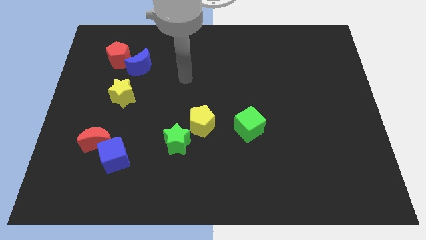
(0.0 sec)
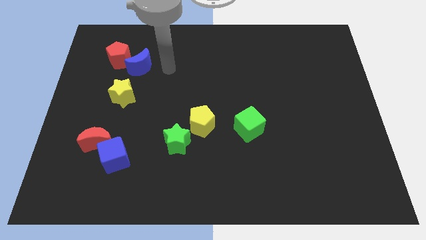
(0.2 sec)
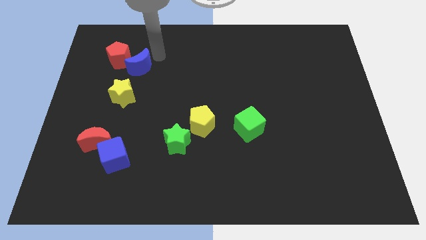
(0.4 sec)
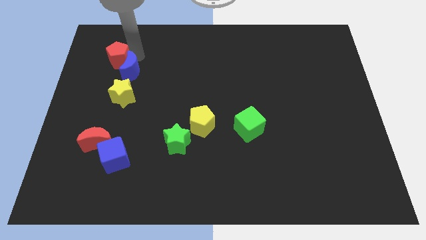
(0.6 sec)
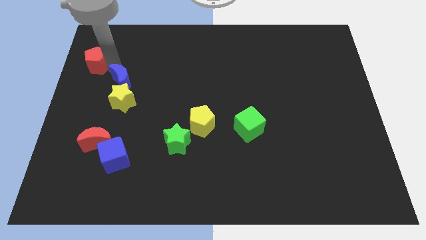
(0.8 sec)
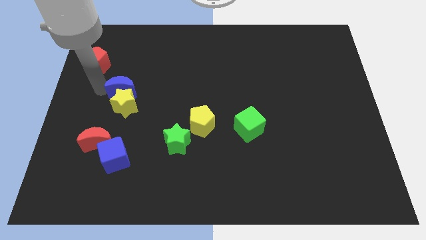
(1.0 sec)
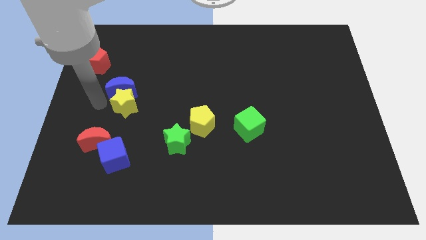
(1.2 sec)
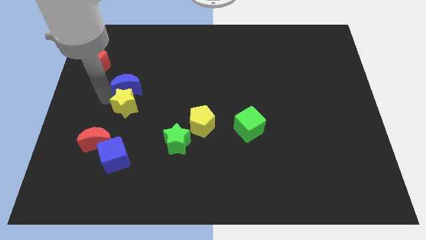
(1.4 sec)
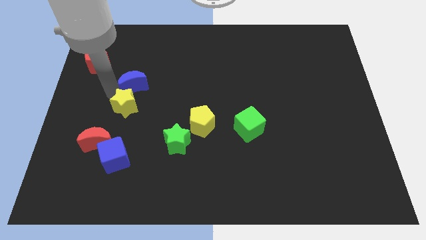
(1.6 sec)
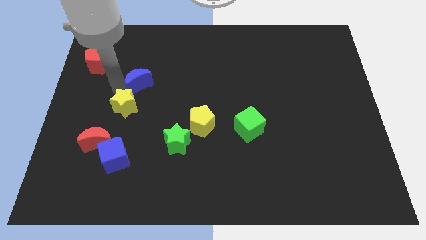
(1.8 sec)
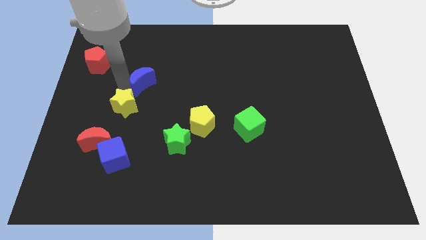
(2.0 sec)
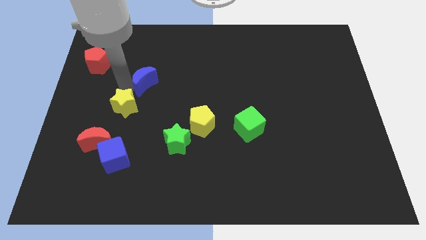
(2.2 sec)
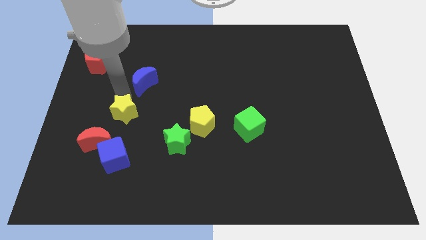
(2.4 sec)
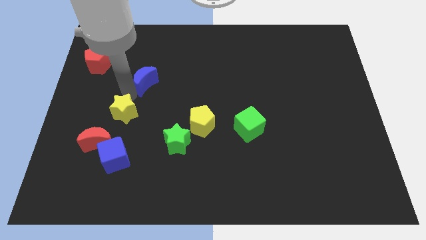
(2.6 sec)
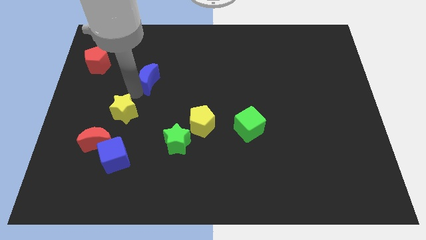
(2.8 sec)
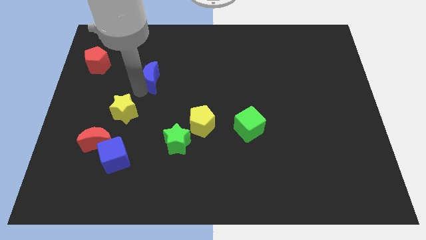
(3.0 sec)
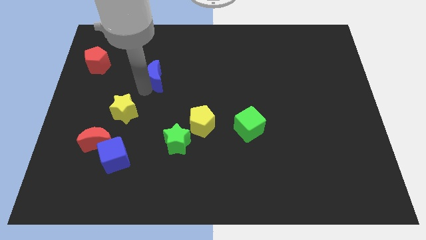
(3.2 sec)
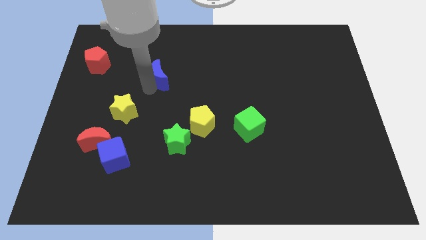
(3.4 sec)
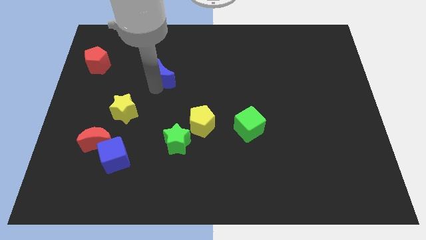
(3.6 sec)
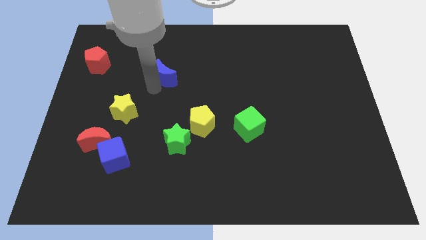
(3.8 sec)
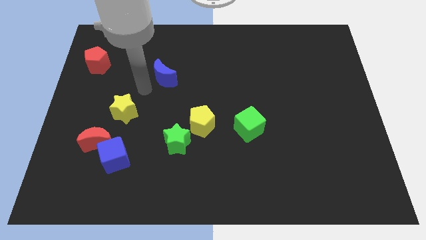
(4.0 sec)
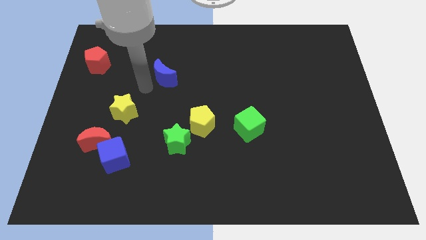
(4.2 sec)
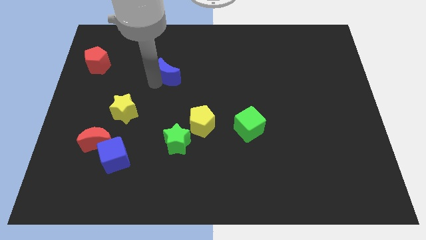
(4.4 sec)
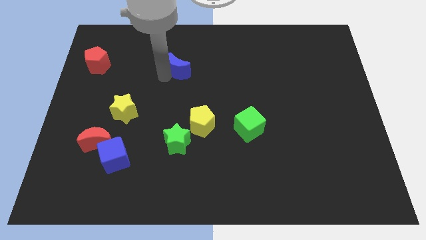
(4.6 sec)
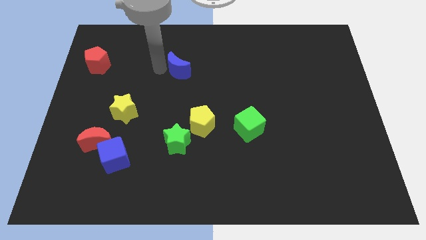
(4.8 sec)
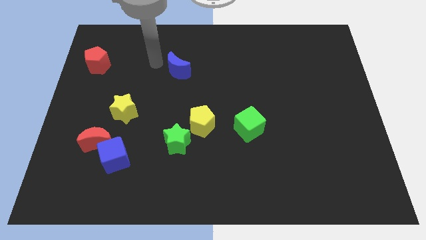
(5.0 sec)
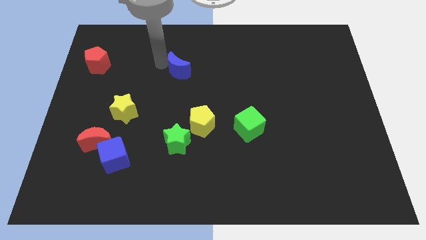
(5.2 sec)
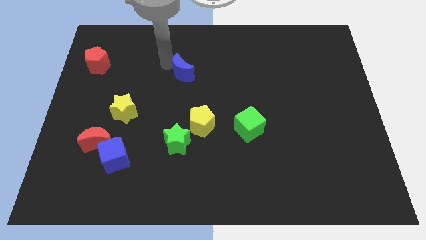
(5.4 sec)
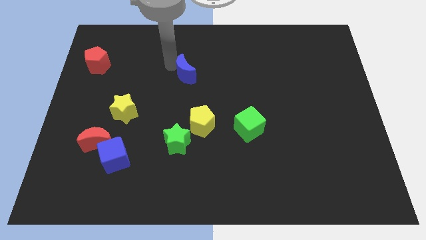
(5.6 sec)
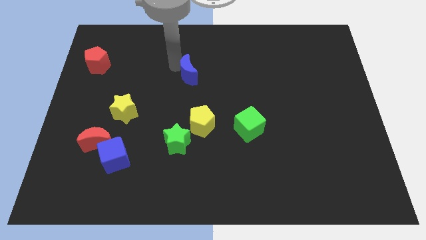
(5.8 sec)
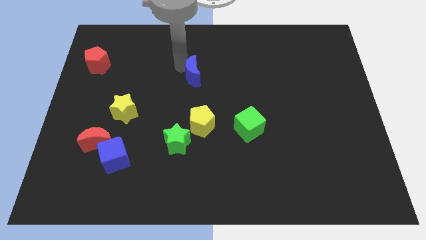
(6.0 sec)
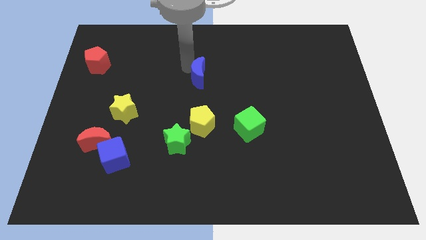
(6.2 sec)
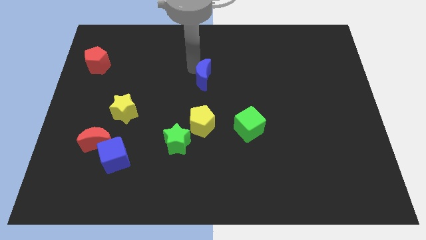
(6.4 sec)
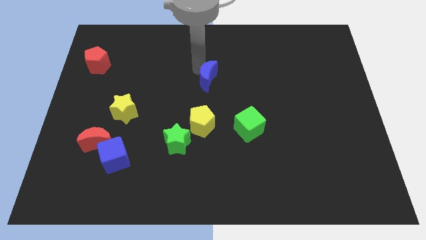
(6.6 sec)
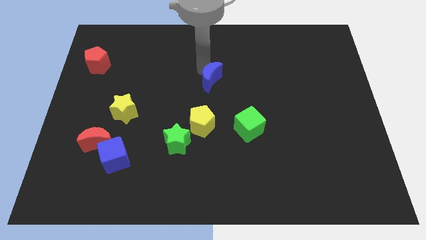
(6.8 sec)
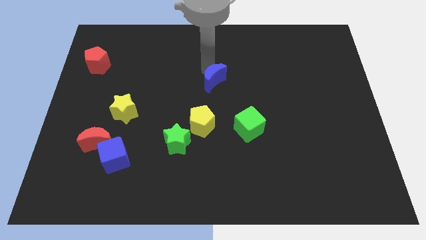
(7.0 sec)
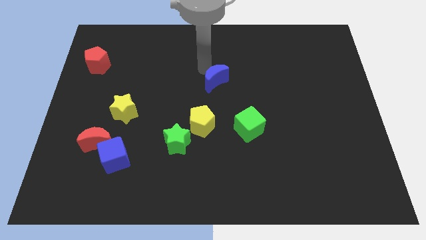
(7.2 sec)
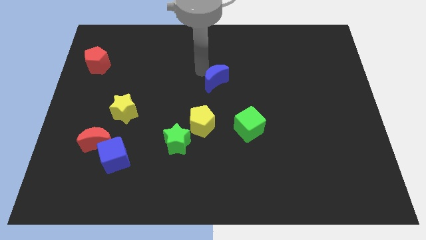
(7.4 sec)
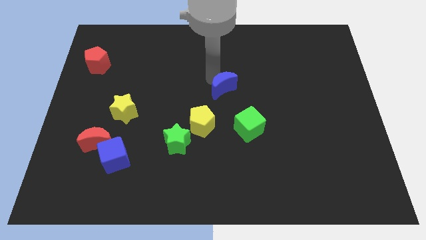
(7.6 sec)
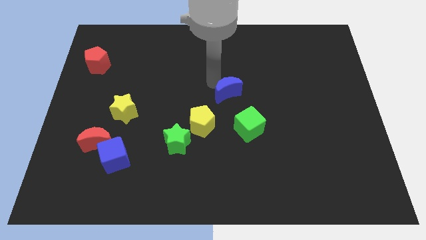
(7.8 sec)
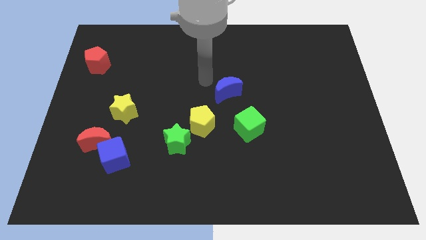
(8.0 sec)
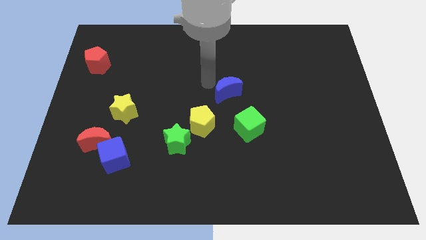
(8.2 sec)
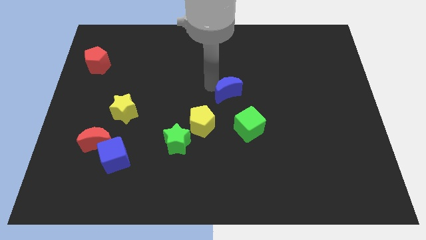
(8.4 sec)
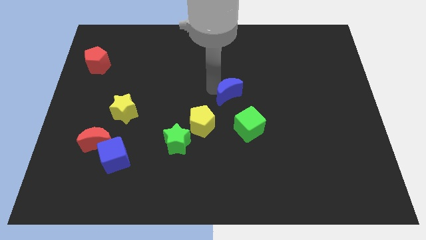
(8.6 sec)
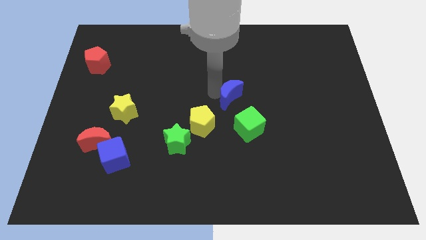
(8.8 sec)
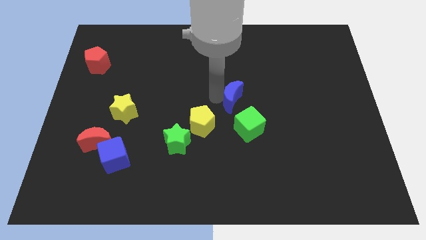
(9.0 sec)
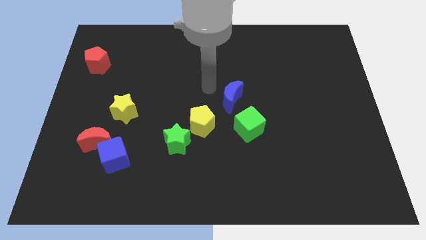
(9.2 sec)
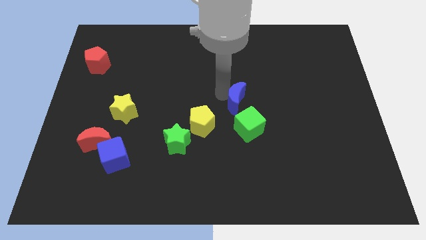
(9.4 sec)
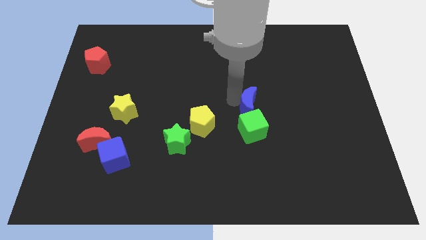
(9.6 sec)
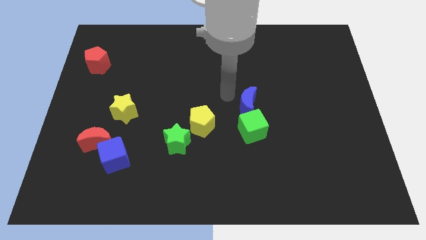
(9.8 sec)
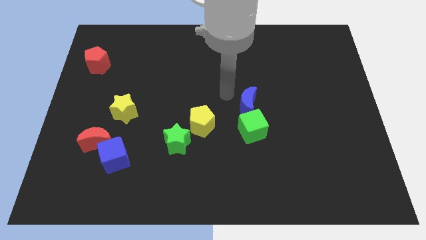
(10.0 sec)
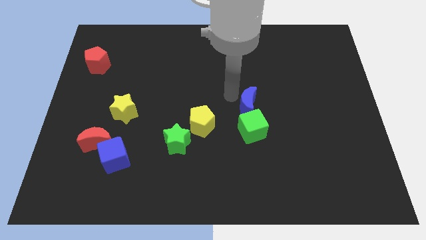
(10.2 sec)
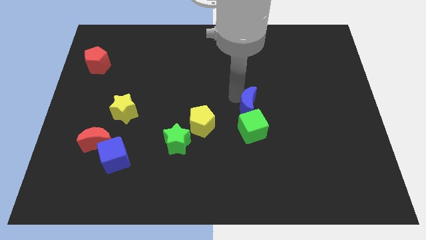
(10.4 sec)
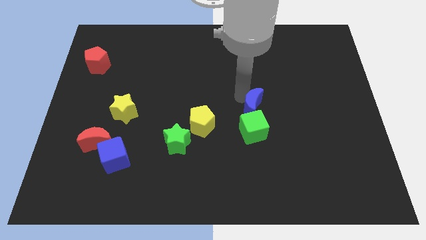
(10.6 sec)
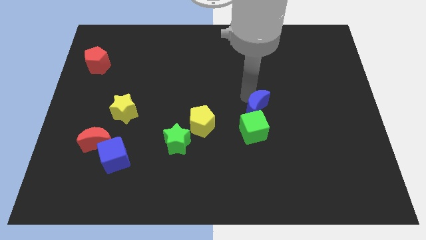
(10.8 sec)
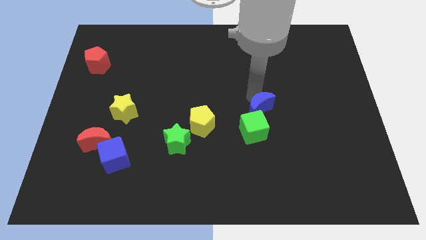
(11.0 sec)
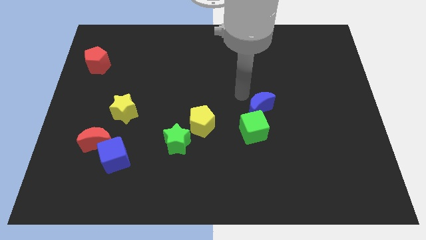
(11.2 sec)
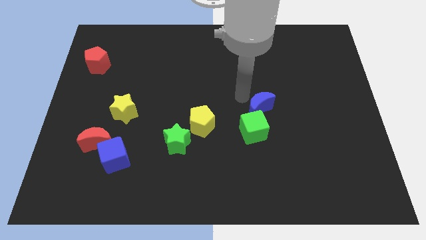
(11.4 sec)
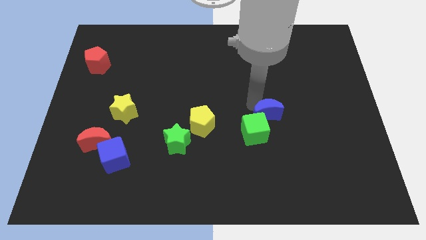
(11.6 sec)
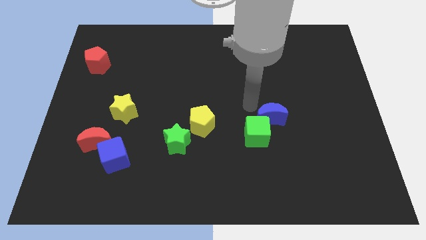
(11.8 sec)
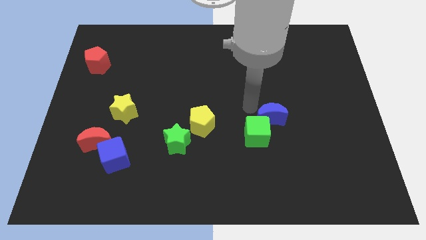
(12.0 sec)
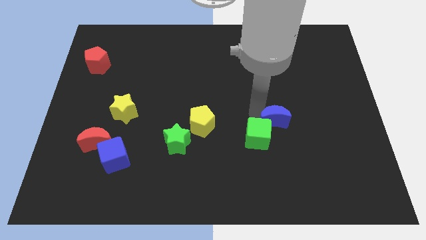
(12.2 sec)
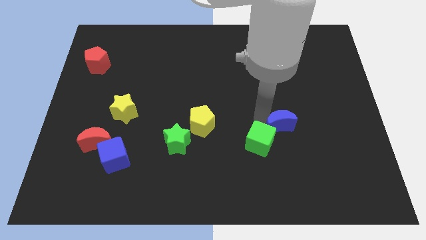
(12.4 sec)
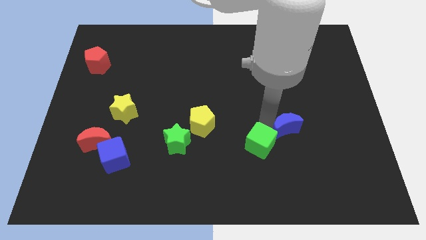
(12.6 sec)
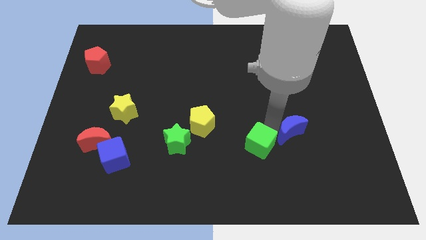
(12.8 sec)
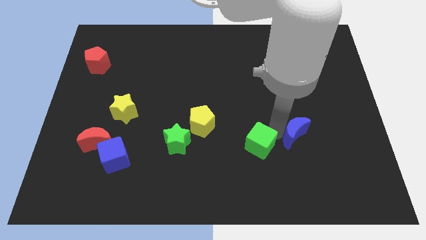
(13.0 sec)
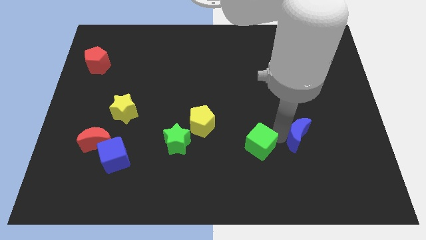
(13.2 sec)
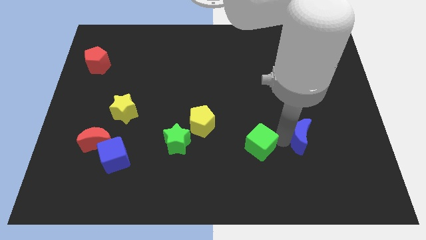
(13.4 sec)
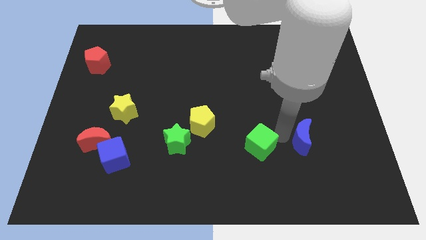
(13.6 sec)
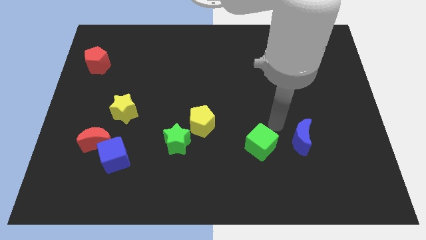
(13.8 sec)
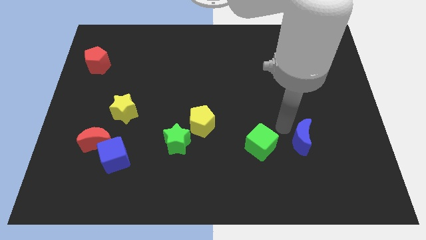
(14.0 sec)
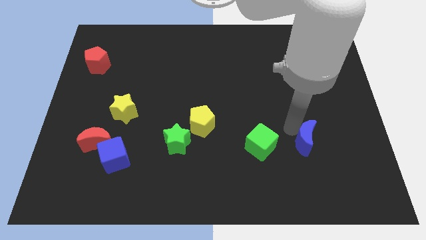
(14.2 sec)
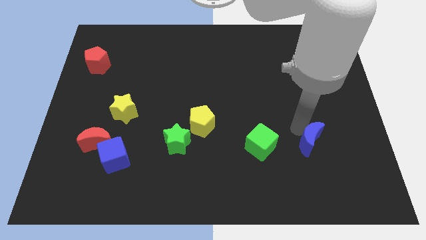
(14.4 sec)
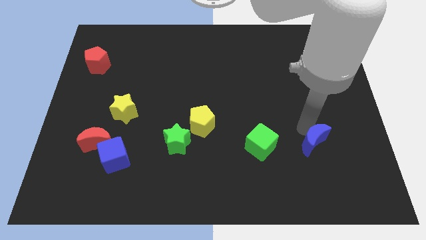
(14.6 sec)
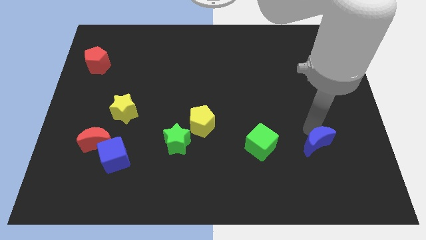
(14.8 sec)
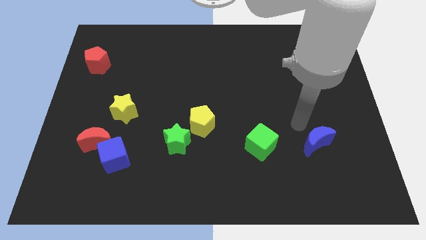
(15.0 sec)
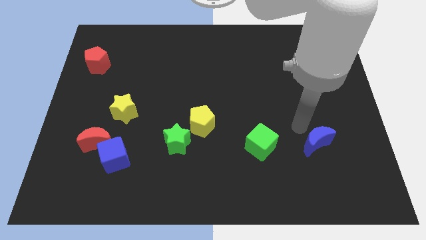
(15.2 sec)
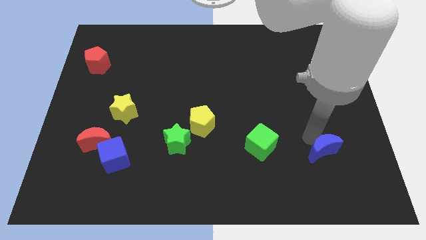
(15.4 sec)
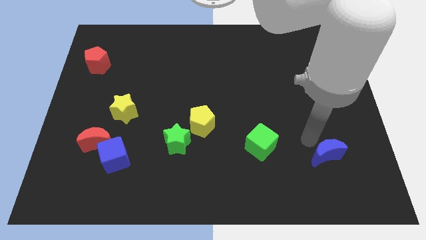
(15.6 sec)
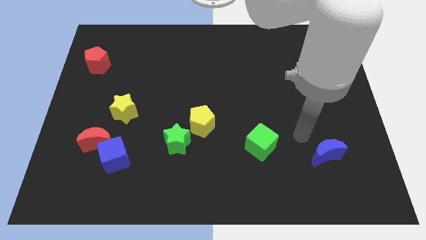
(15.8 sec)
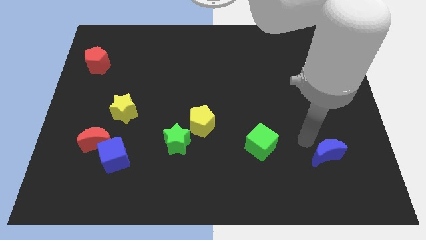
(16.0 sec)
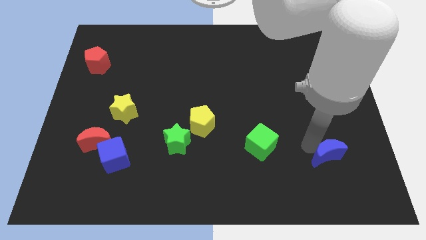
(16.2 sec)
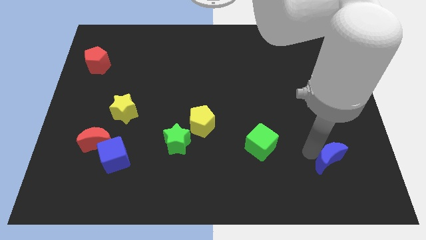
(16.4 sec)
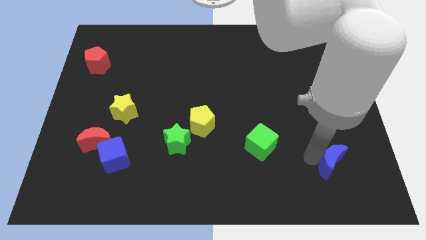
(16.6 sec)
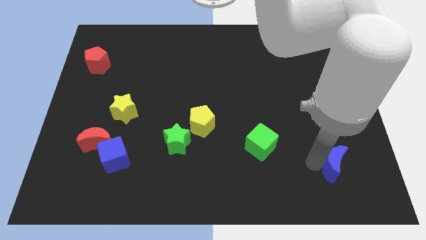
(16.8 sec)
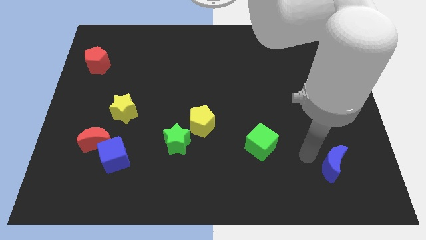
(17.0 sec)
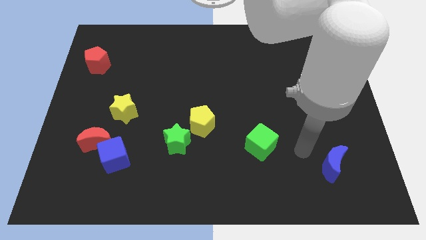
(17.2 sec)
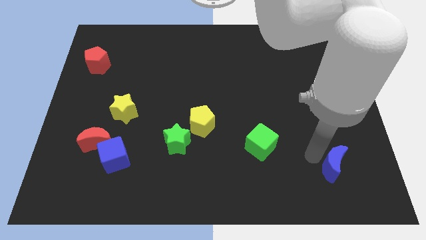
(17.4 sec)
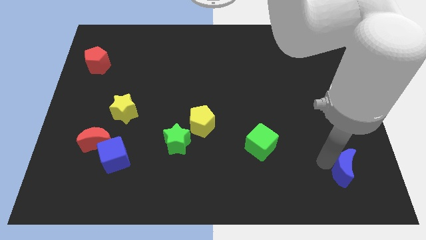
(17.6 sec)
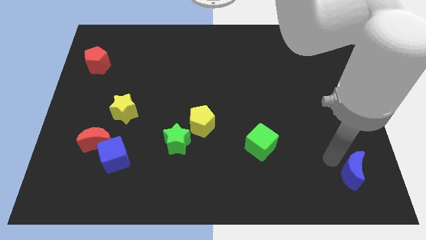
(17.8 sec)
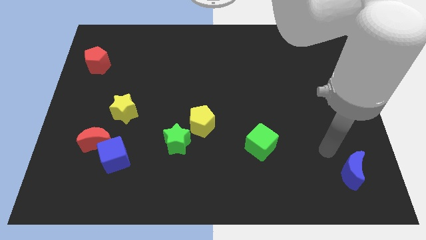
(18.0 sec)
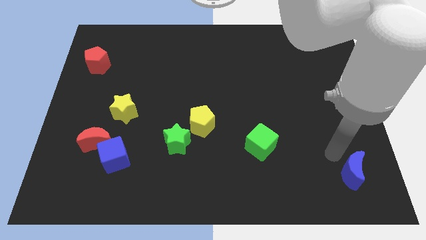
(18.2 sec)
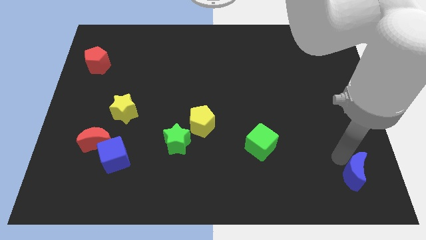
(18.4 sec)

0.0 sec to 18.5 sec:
push the blue moon to the bottom right corner
